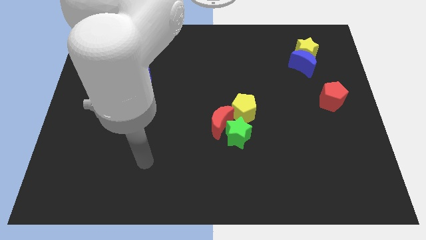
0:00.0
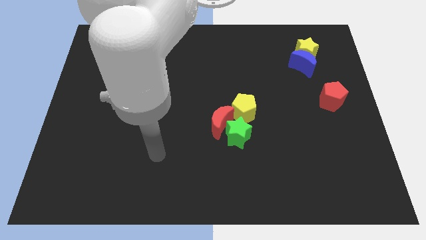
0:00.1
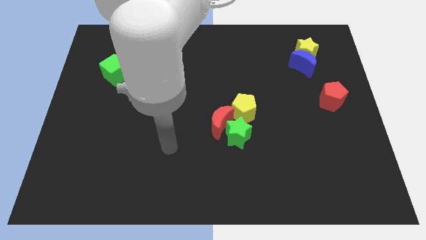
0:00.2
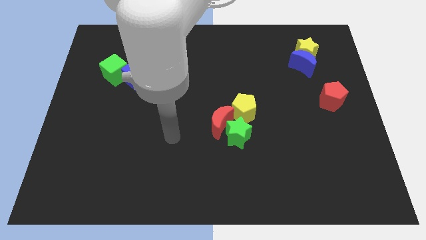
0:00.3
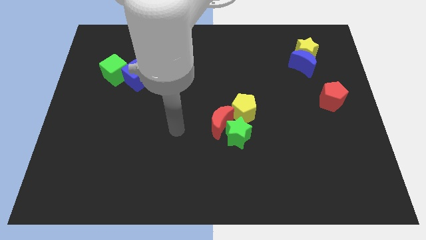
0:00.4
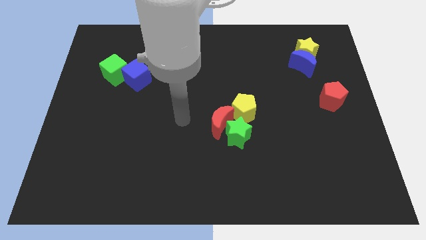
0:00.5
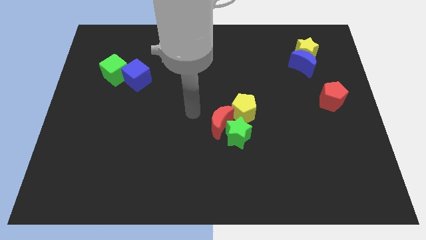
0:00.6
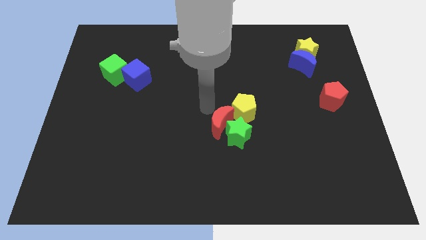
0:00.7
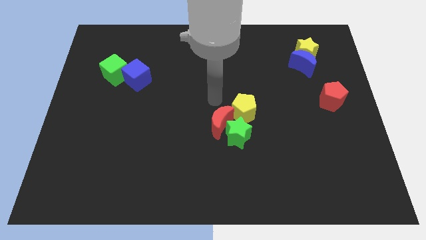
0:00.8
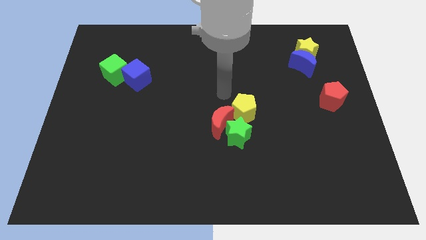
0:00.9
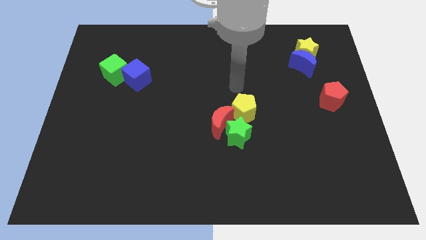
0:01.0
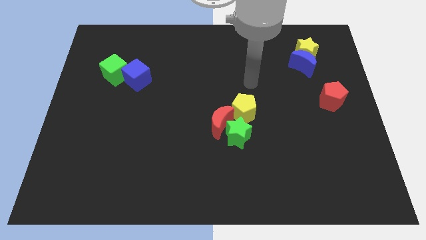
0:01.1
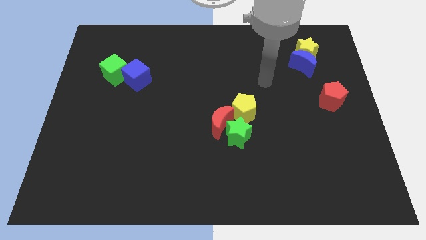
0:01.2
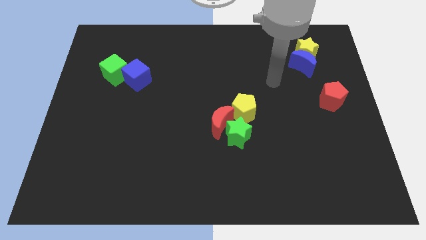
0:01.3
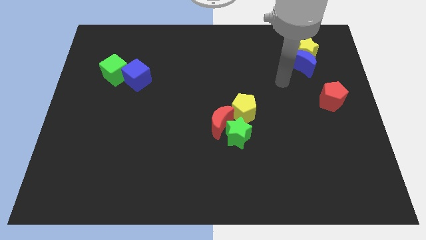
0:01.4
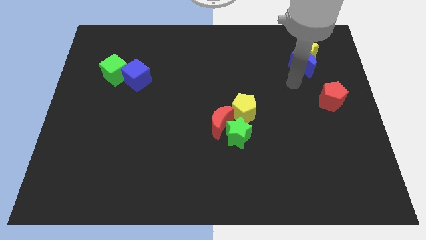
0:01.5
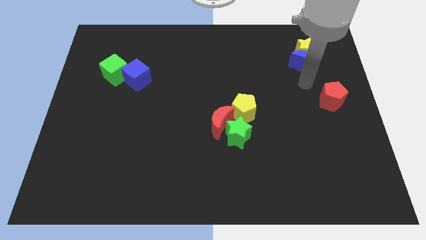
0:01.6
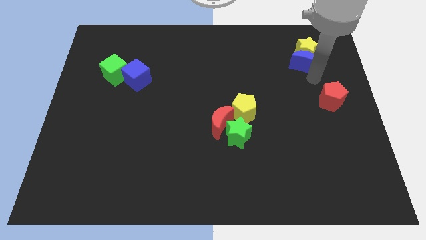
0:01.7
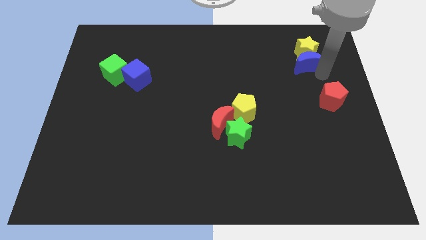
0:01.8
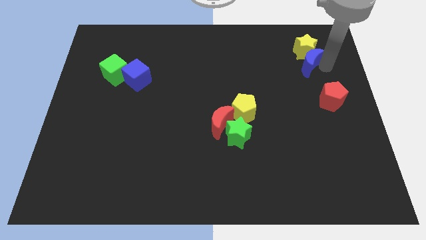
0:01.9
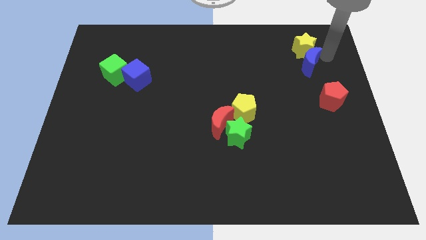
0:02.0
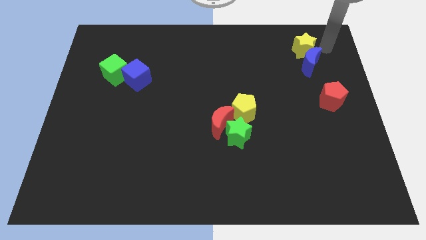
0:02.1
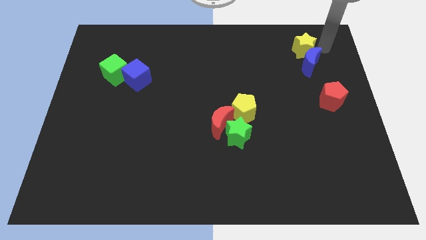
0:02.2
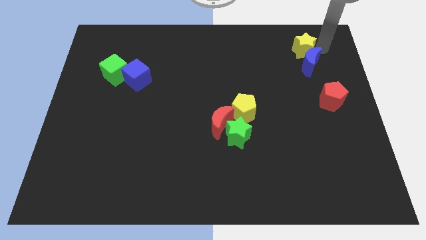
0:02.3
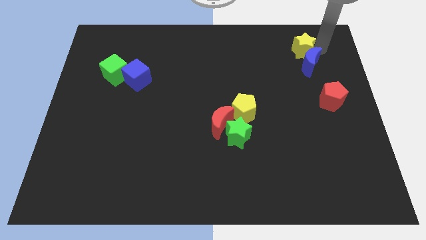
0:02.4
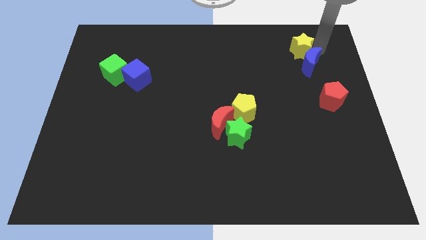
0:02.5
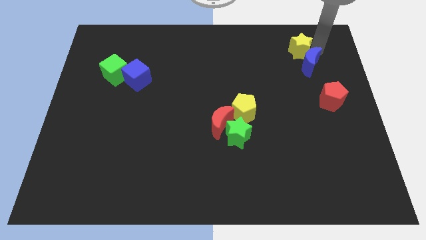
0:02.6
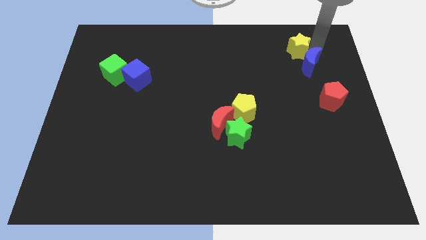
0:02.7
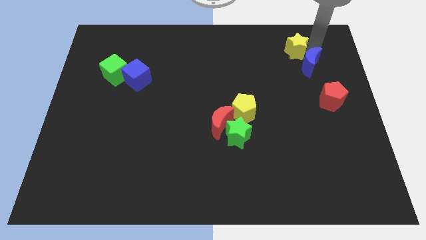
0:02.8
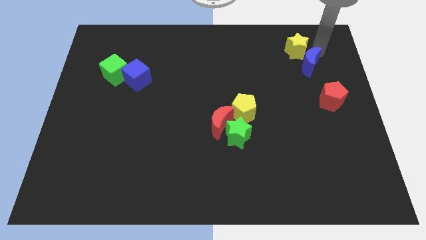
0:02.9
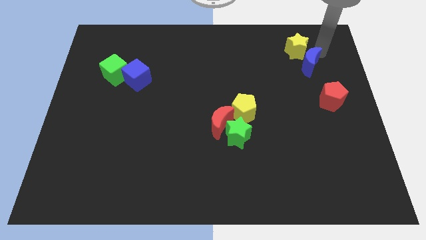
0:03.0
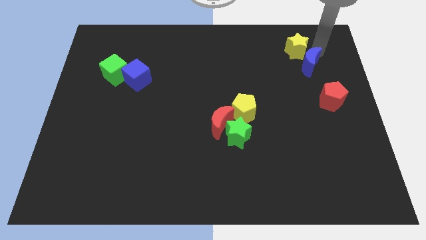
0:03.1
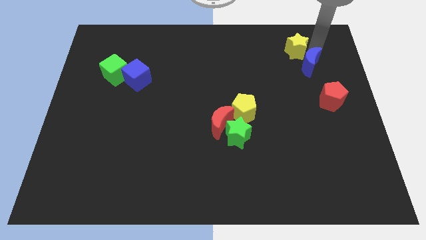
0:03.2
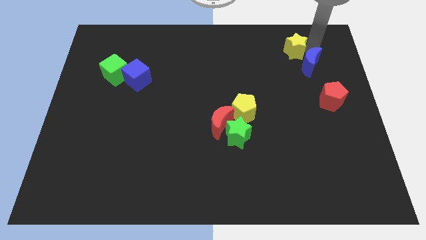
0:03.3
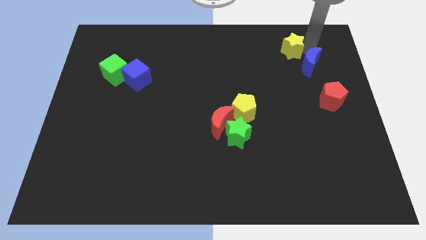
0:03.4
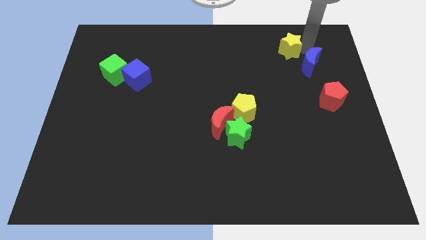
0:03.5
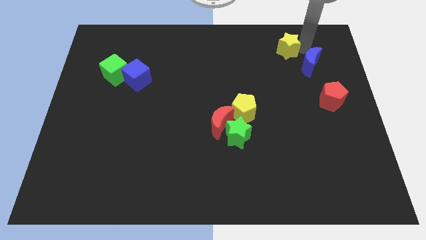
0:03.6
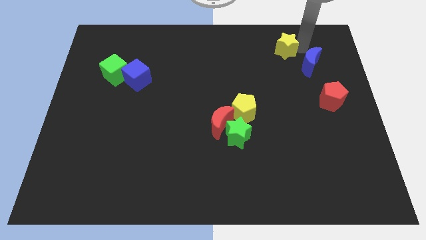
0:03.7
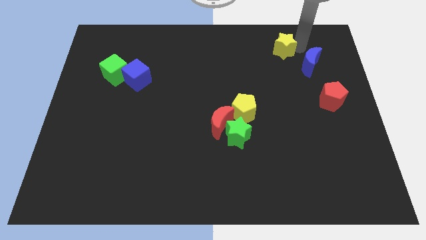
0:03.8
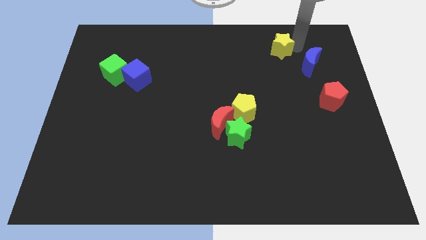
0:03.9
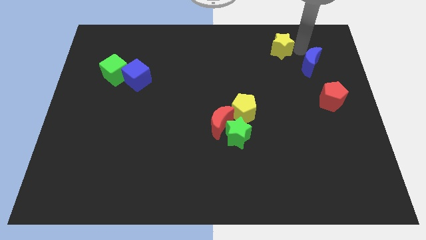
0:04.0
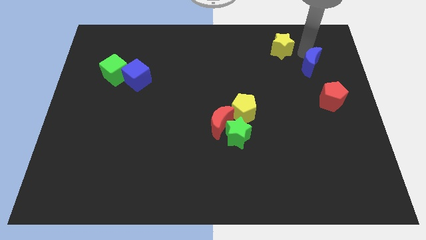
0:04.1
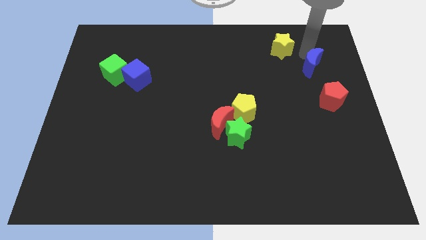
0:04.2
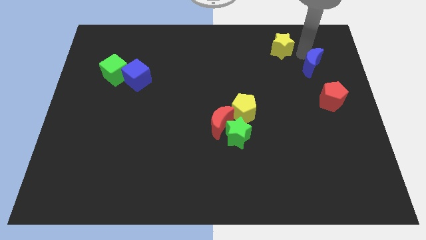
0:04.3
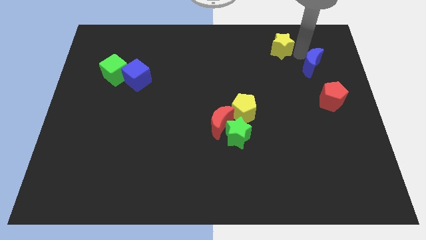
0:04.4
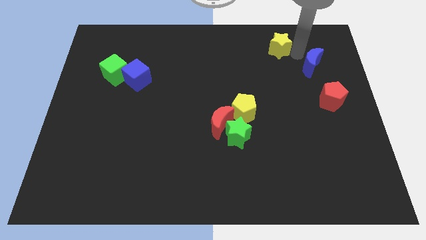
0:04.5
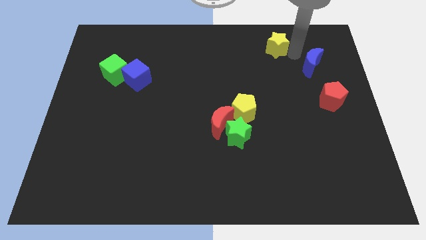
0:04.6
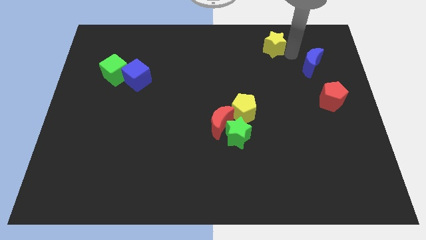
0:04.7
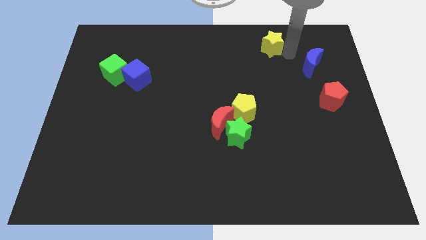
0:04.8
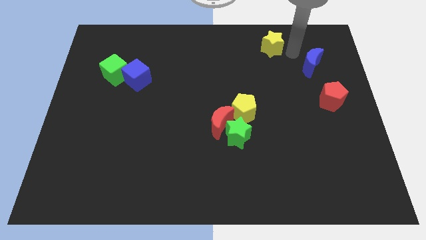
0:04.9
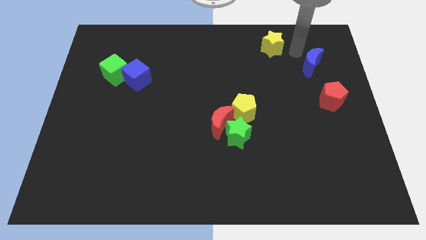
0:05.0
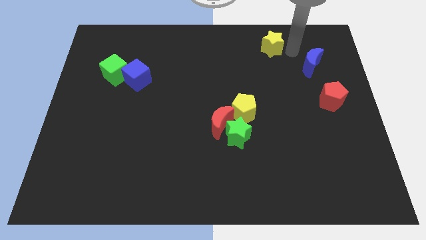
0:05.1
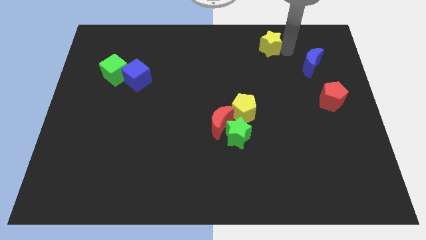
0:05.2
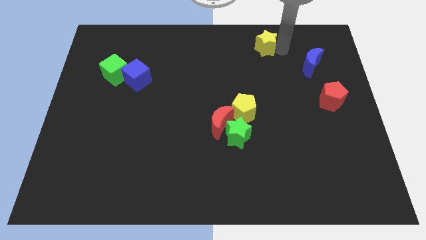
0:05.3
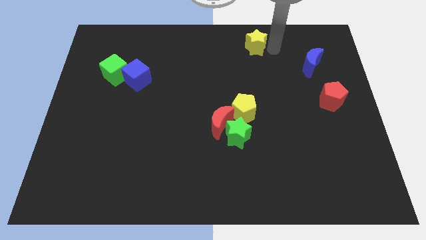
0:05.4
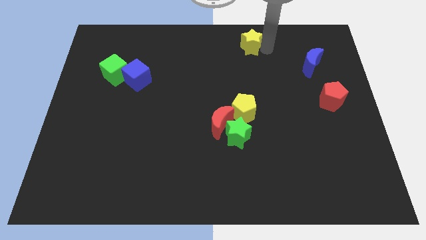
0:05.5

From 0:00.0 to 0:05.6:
move the yellow star to the towards your base

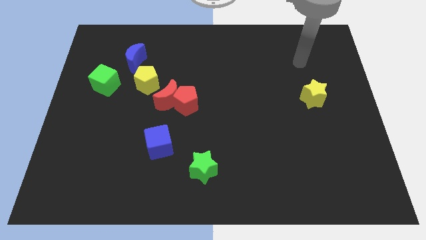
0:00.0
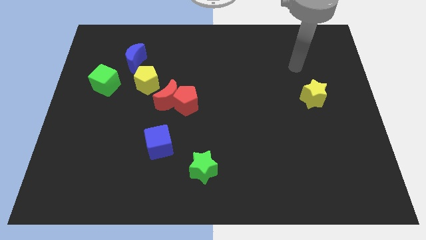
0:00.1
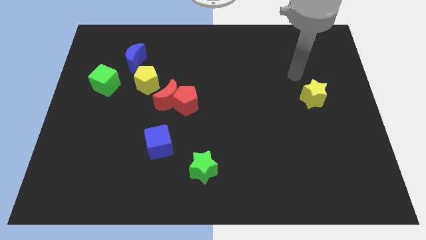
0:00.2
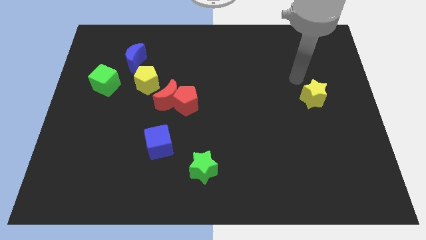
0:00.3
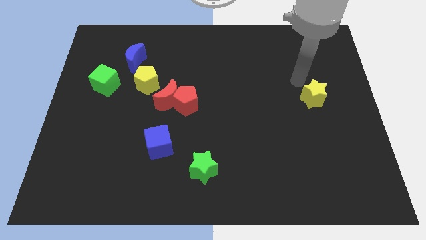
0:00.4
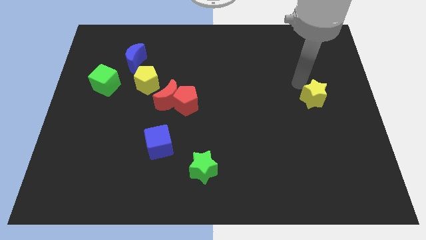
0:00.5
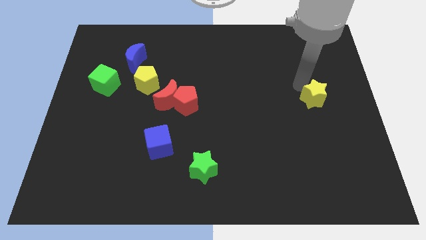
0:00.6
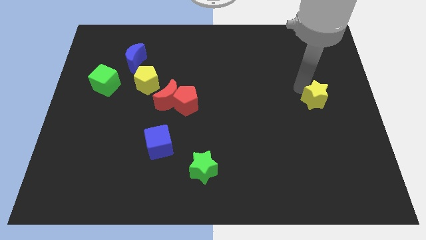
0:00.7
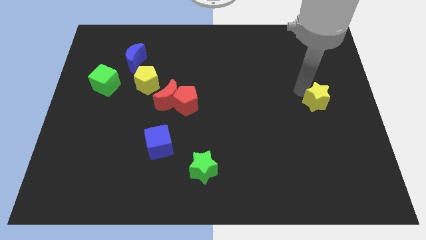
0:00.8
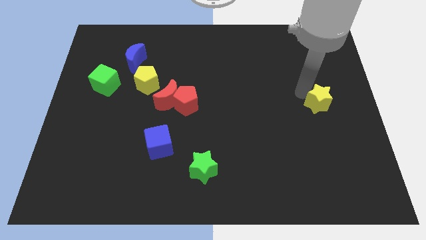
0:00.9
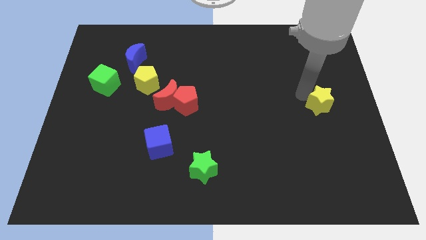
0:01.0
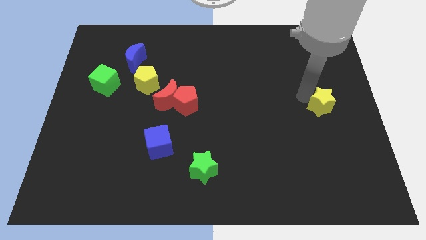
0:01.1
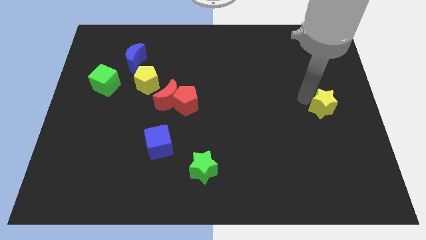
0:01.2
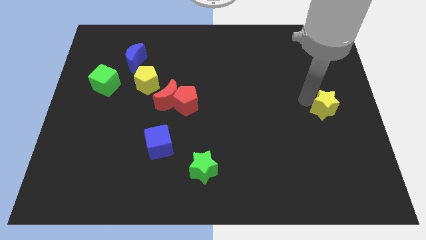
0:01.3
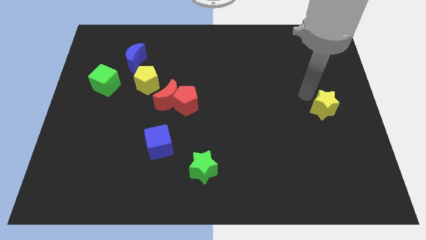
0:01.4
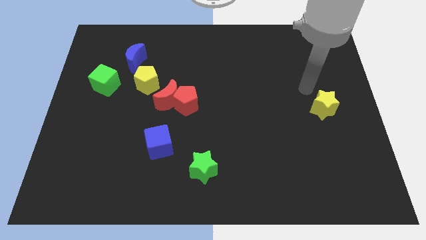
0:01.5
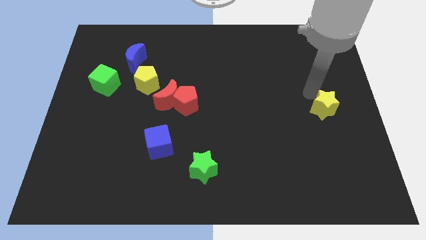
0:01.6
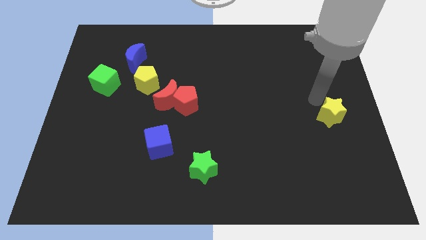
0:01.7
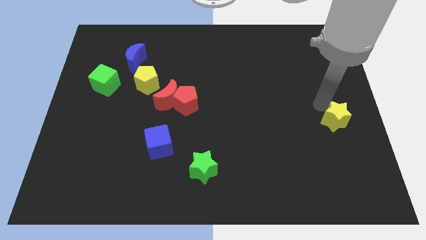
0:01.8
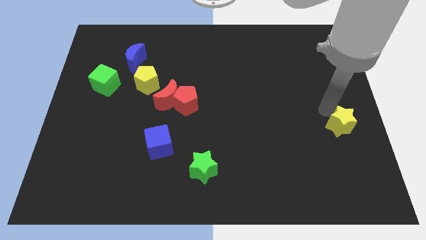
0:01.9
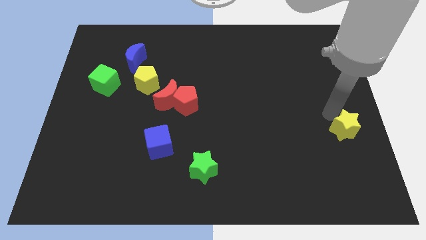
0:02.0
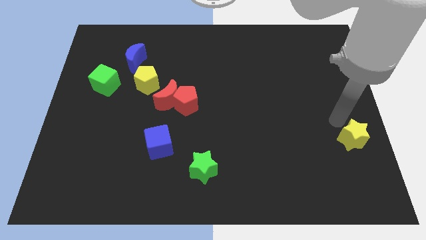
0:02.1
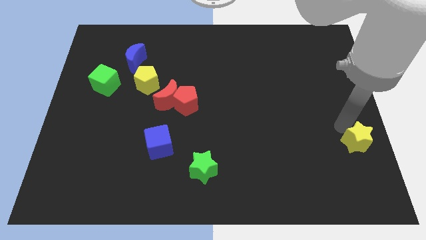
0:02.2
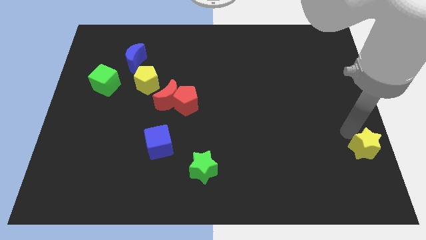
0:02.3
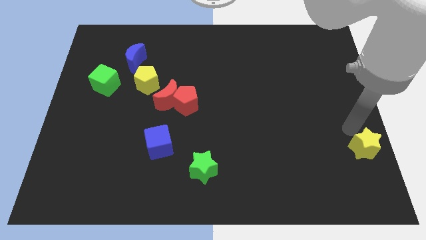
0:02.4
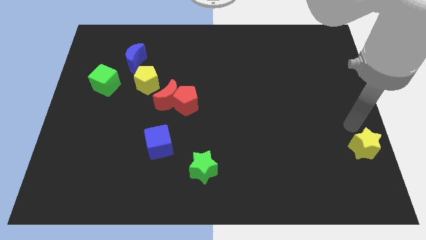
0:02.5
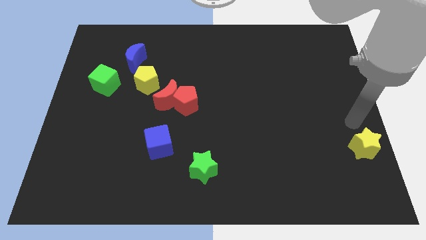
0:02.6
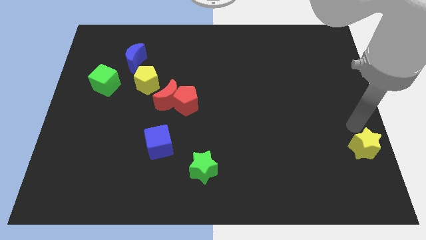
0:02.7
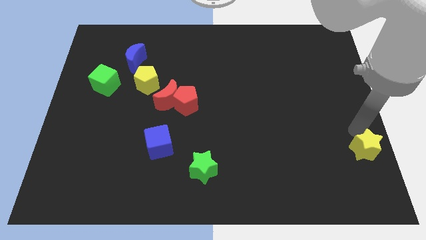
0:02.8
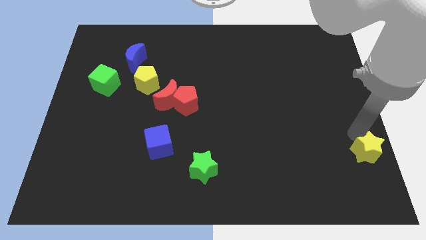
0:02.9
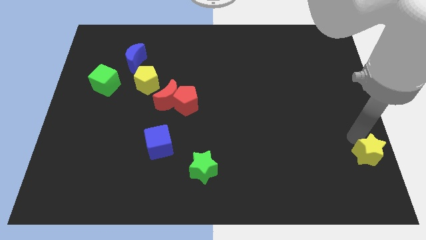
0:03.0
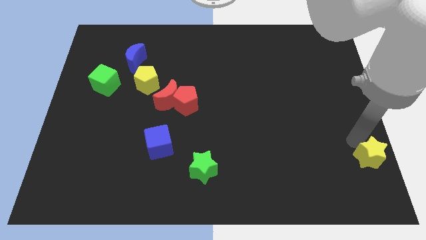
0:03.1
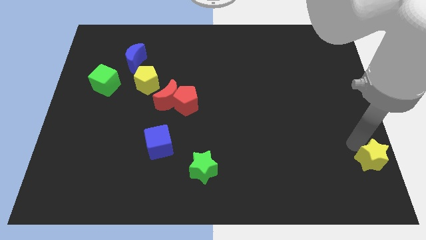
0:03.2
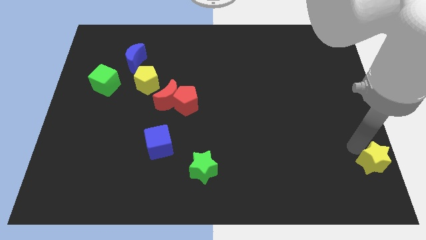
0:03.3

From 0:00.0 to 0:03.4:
push the yellow star to the bottom right of the board
